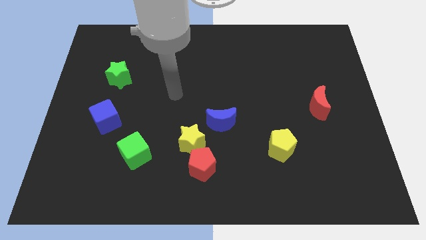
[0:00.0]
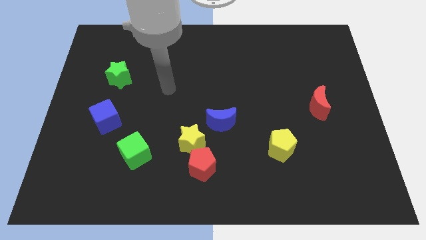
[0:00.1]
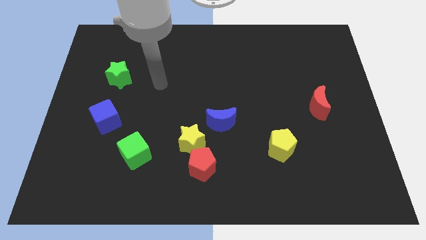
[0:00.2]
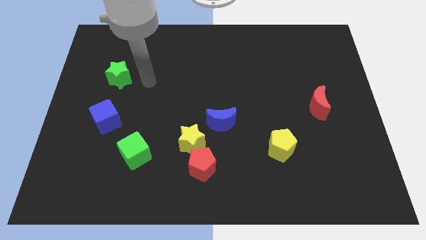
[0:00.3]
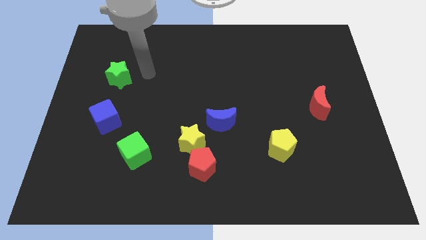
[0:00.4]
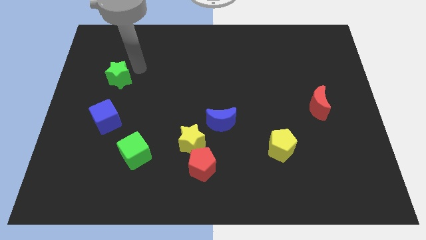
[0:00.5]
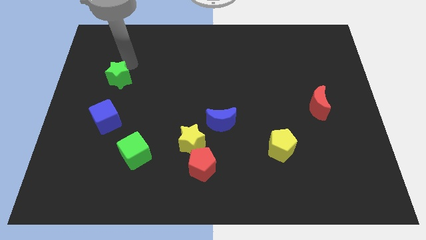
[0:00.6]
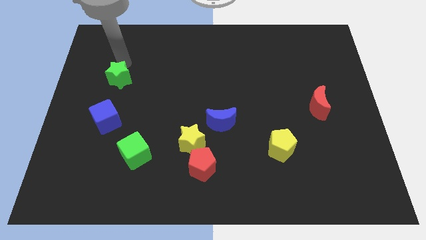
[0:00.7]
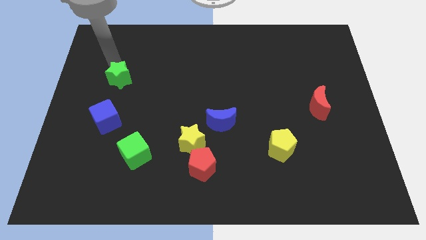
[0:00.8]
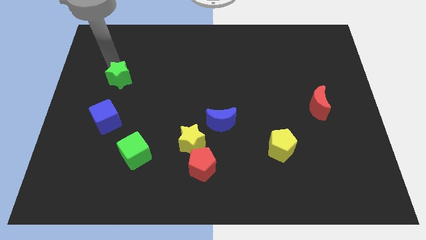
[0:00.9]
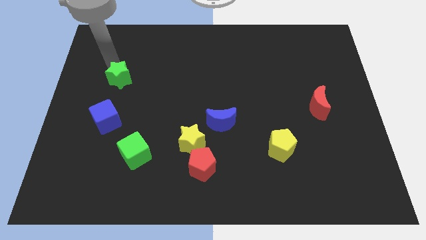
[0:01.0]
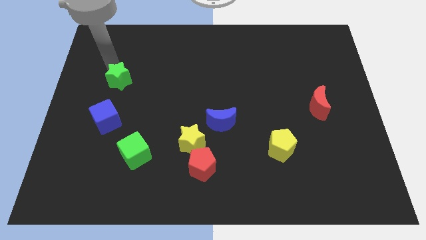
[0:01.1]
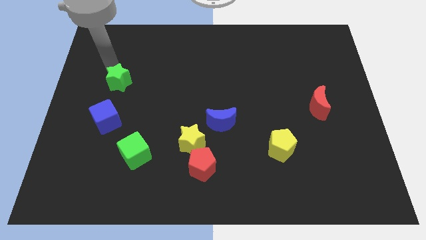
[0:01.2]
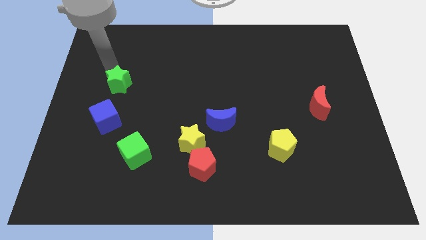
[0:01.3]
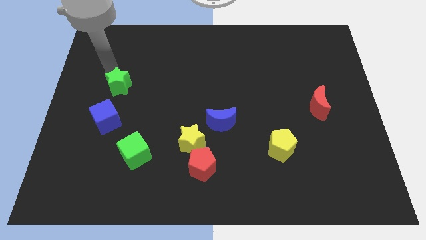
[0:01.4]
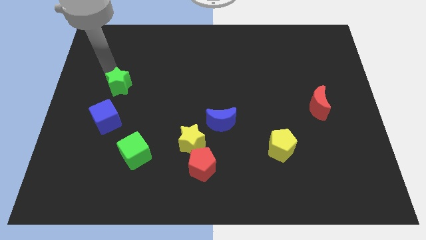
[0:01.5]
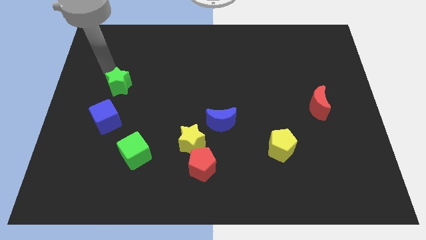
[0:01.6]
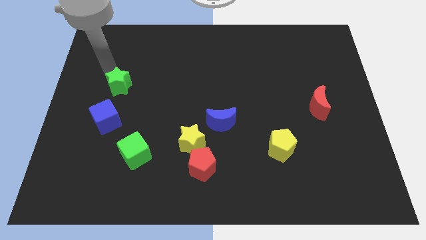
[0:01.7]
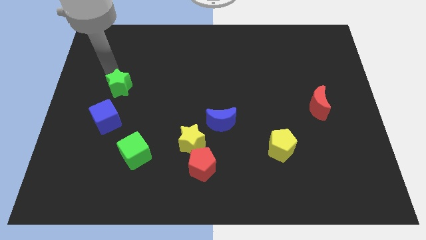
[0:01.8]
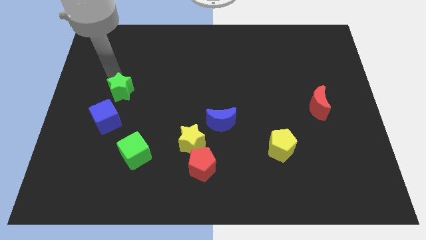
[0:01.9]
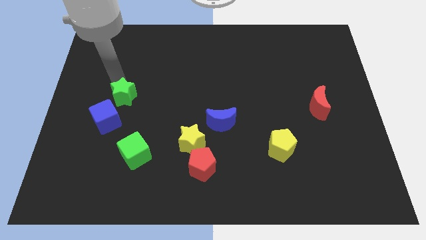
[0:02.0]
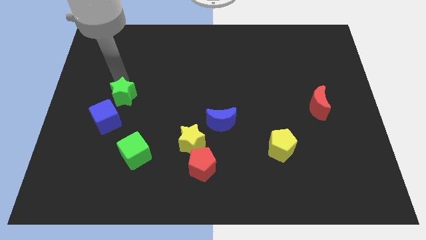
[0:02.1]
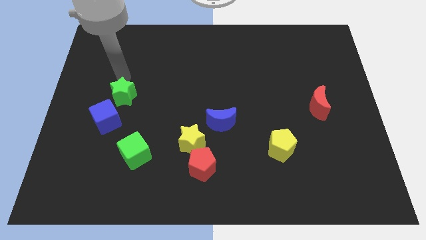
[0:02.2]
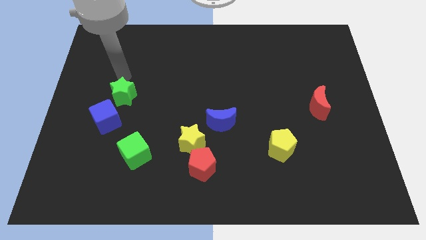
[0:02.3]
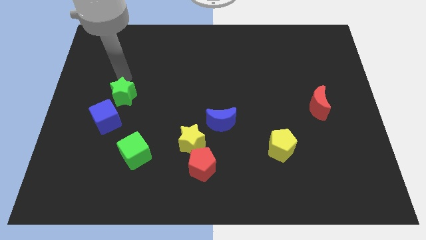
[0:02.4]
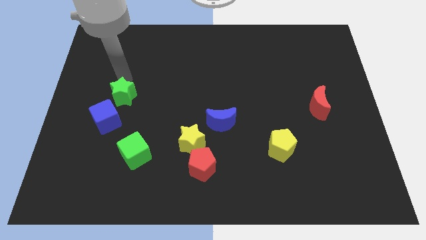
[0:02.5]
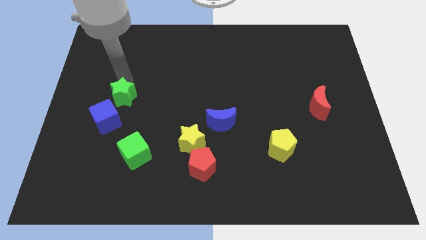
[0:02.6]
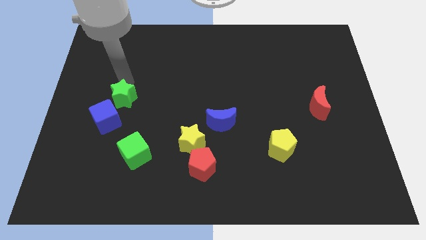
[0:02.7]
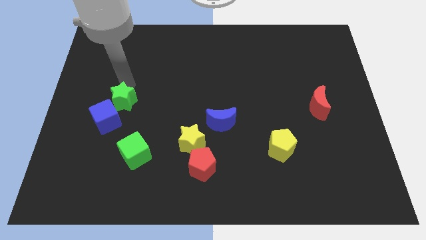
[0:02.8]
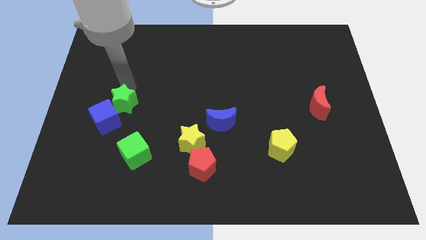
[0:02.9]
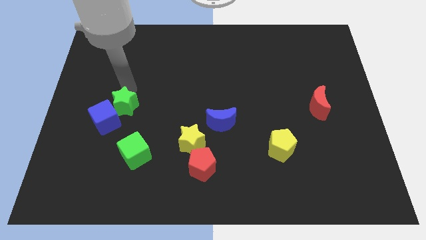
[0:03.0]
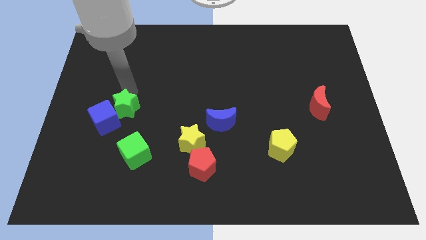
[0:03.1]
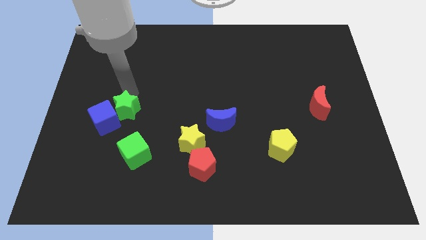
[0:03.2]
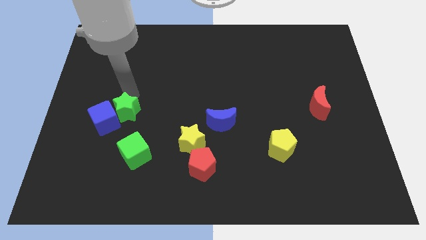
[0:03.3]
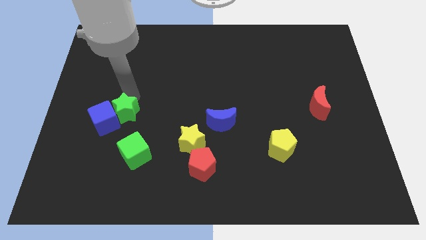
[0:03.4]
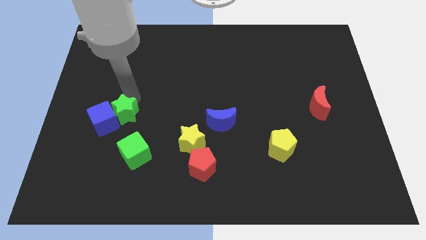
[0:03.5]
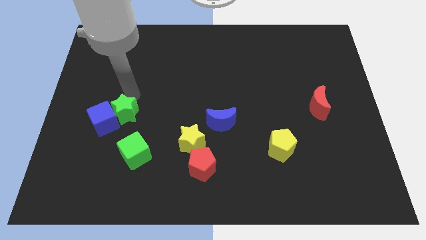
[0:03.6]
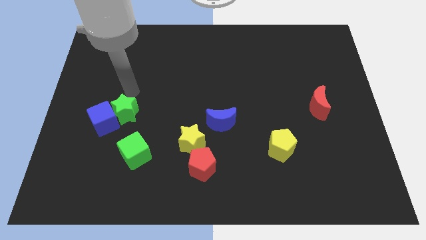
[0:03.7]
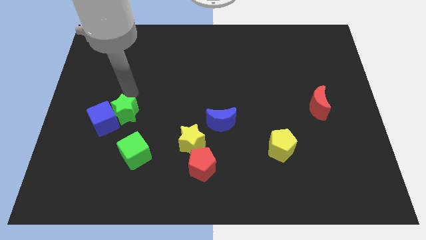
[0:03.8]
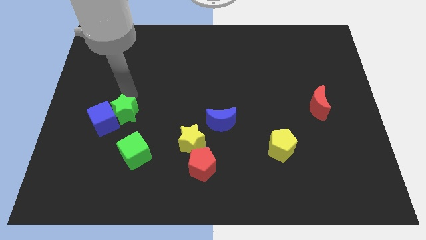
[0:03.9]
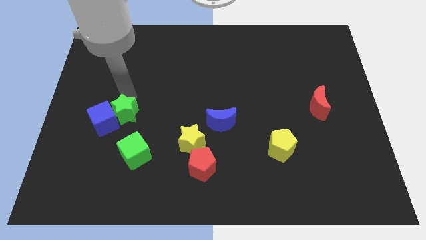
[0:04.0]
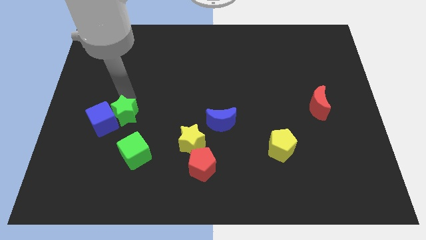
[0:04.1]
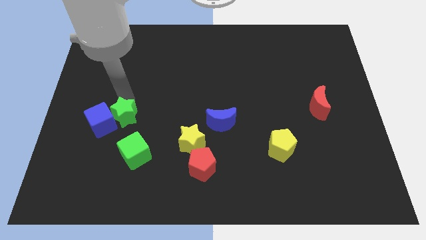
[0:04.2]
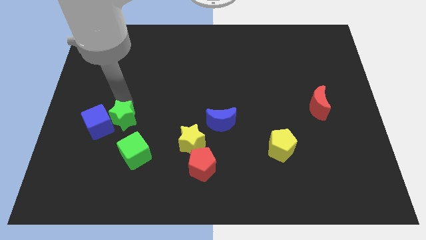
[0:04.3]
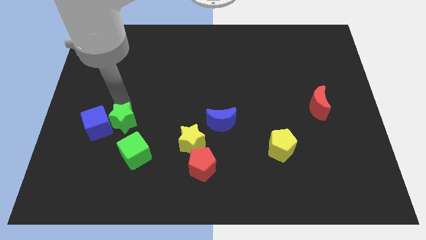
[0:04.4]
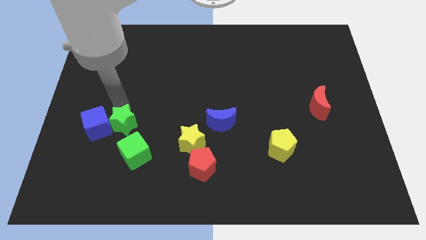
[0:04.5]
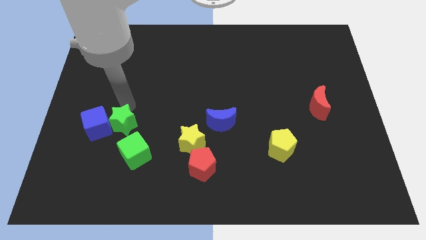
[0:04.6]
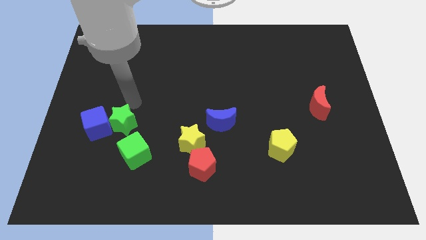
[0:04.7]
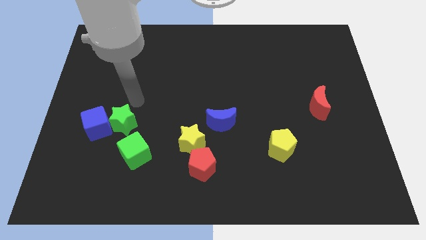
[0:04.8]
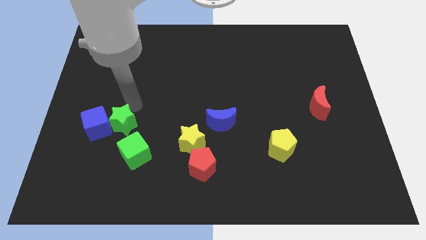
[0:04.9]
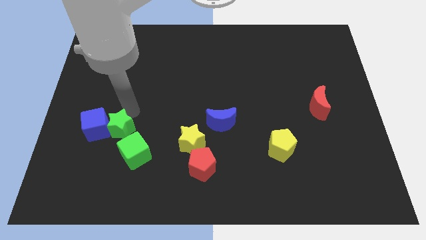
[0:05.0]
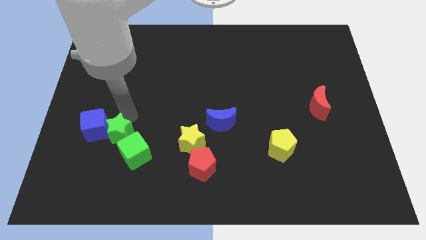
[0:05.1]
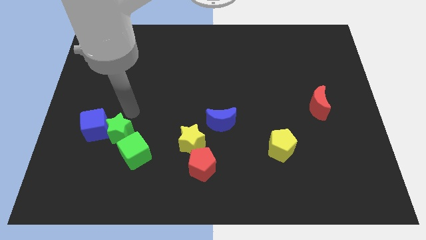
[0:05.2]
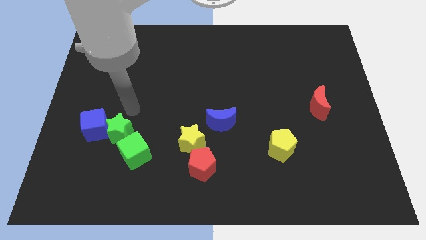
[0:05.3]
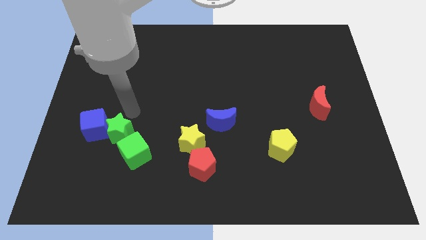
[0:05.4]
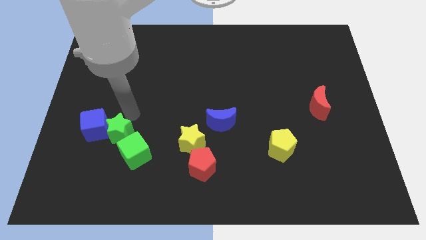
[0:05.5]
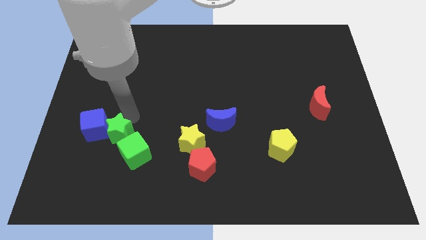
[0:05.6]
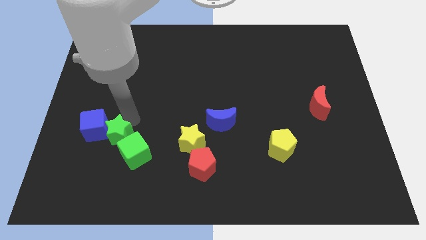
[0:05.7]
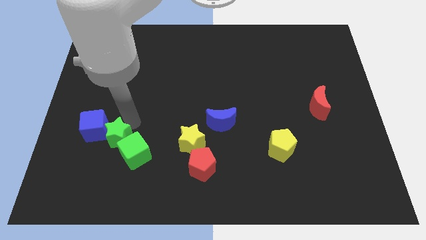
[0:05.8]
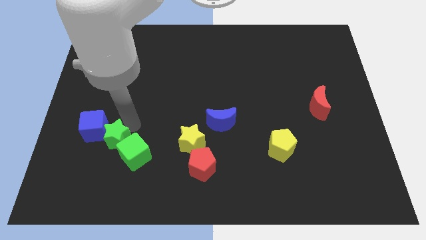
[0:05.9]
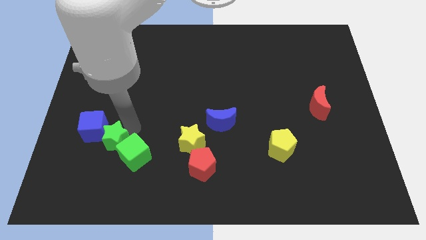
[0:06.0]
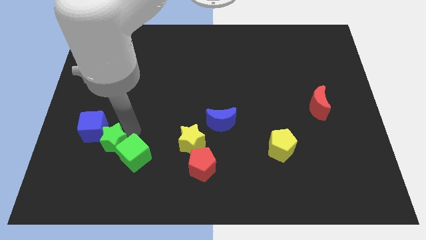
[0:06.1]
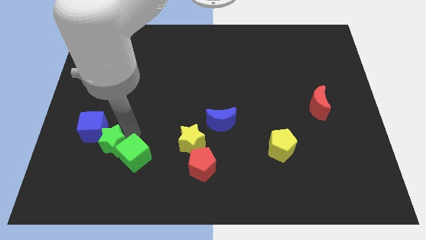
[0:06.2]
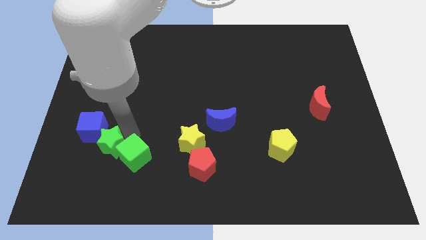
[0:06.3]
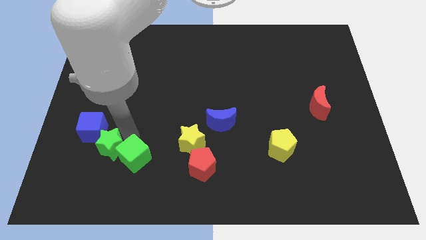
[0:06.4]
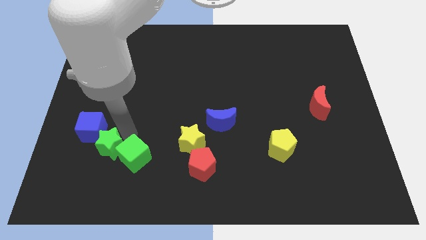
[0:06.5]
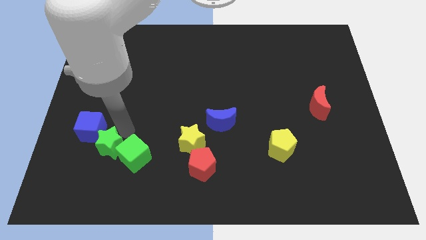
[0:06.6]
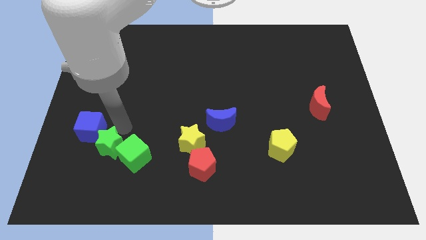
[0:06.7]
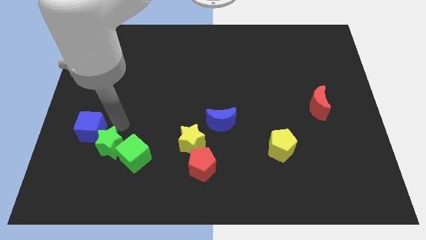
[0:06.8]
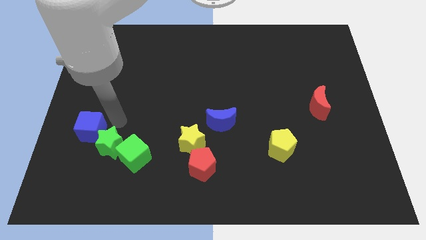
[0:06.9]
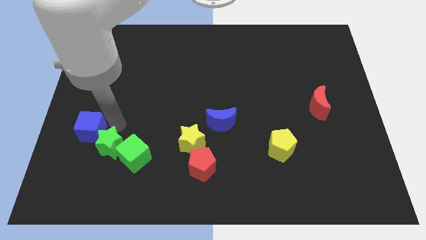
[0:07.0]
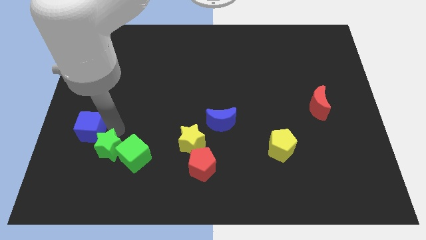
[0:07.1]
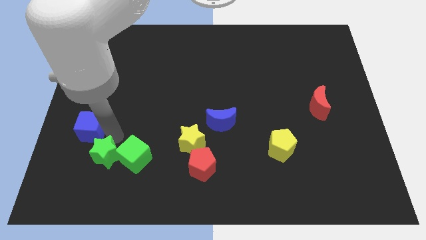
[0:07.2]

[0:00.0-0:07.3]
move the green star to the bottom left side of the green cube

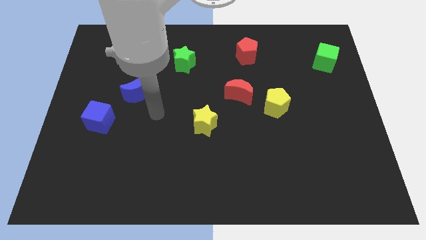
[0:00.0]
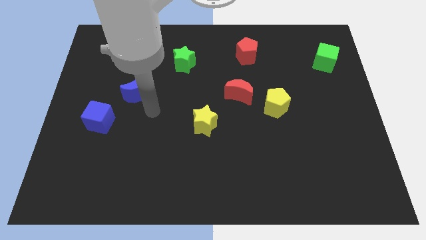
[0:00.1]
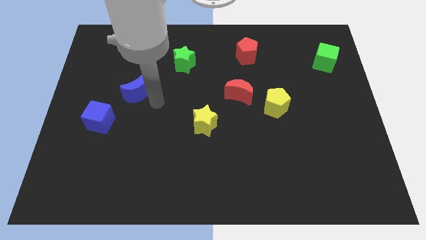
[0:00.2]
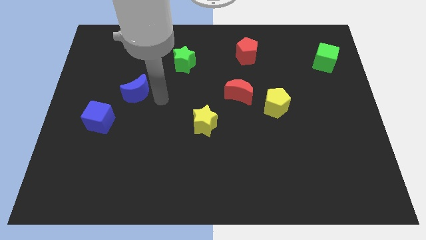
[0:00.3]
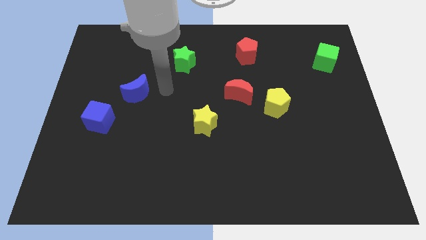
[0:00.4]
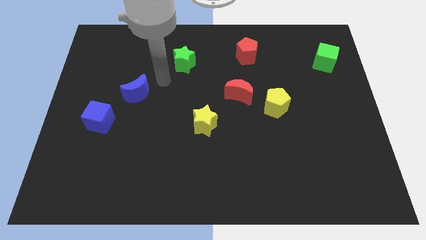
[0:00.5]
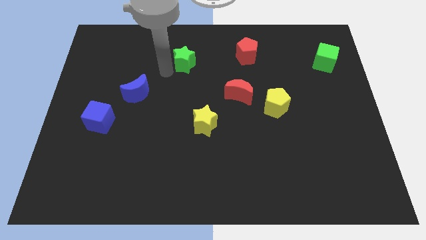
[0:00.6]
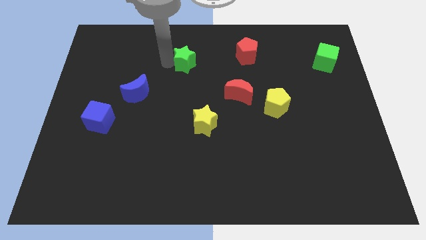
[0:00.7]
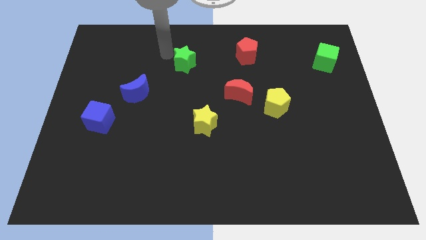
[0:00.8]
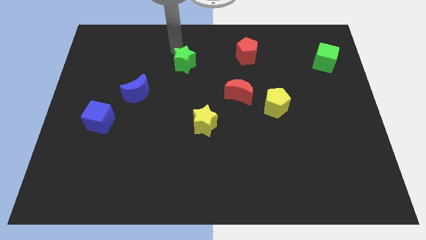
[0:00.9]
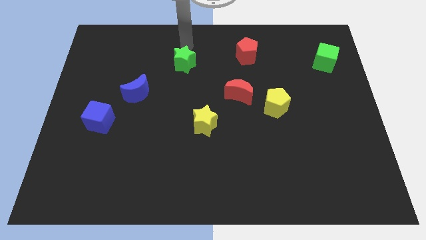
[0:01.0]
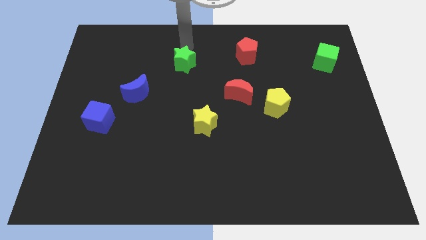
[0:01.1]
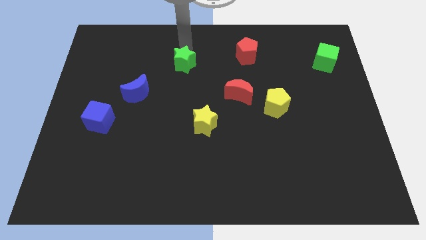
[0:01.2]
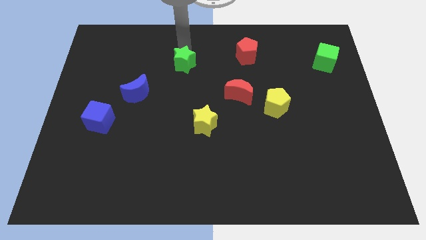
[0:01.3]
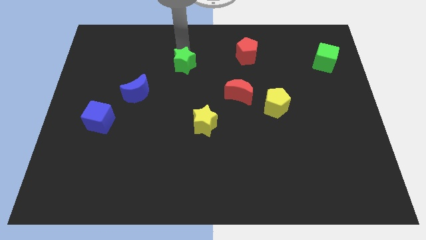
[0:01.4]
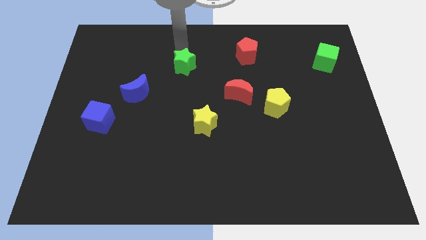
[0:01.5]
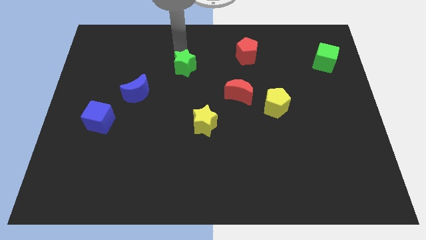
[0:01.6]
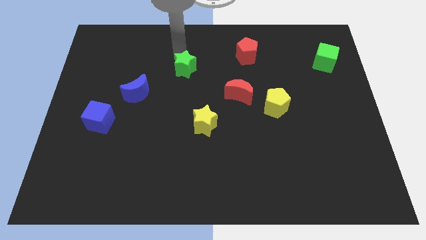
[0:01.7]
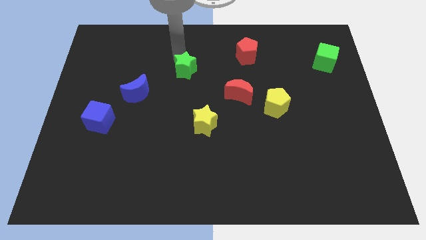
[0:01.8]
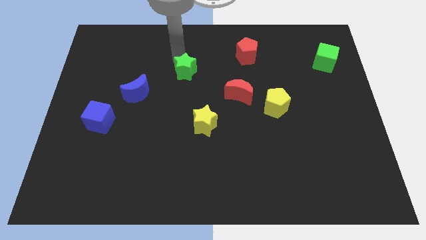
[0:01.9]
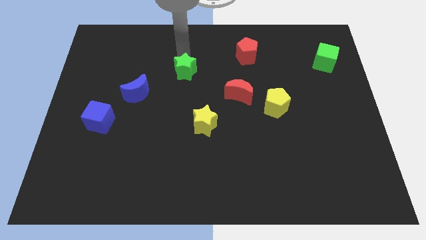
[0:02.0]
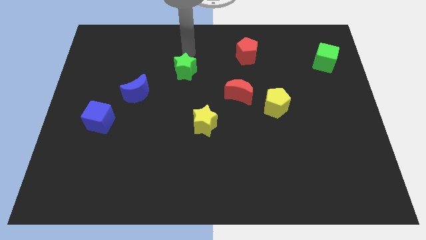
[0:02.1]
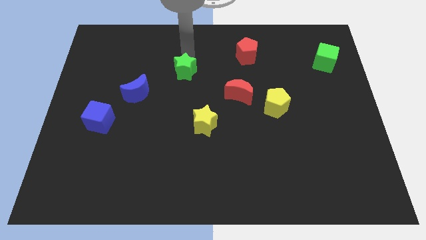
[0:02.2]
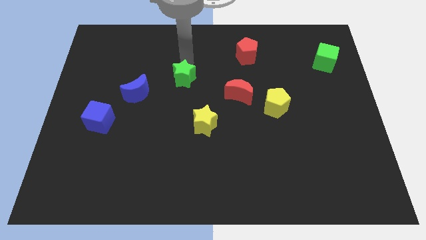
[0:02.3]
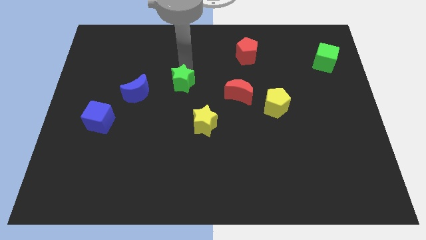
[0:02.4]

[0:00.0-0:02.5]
push the green star just right of the blue moon
